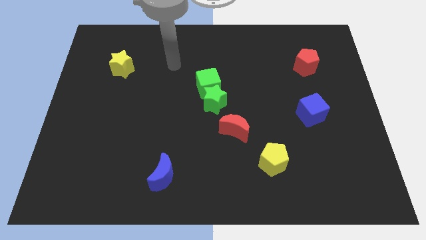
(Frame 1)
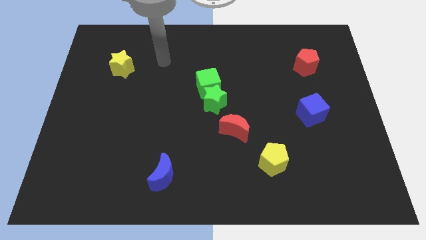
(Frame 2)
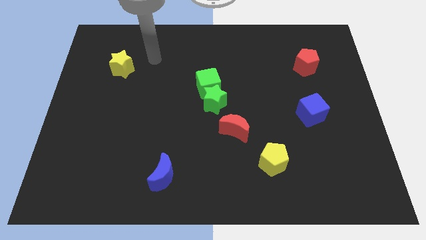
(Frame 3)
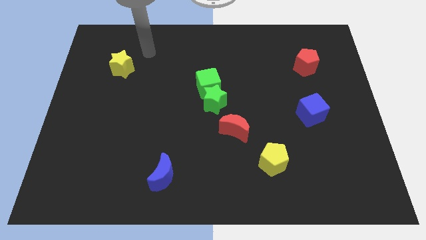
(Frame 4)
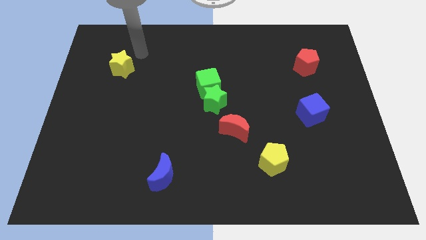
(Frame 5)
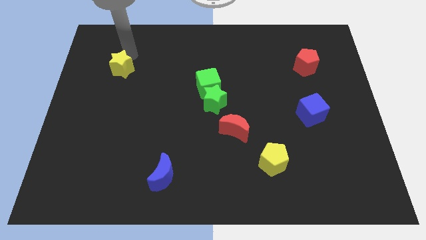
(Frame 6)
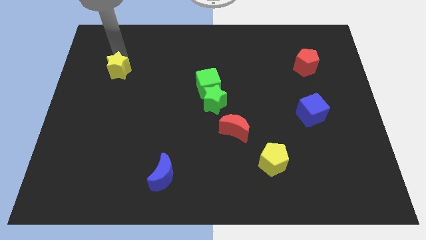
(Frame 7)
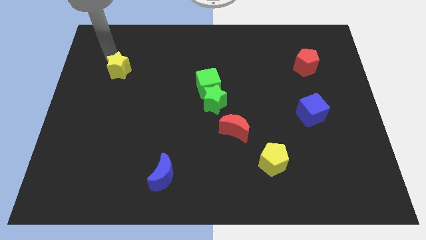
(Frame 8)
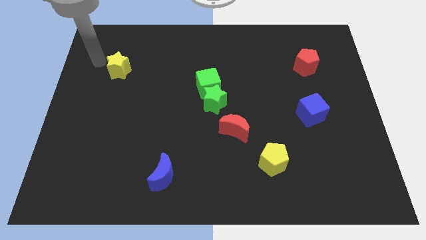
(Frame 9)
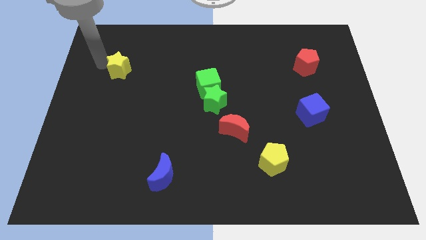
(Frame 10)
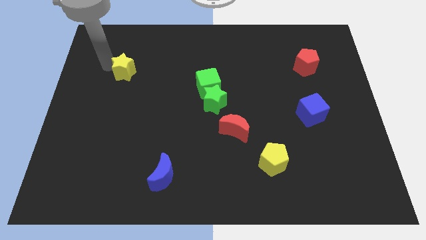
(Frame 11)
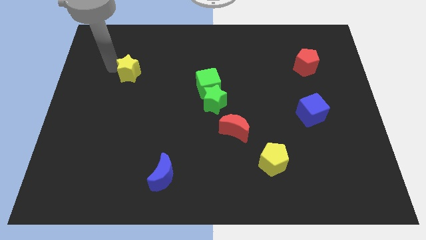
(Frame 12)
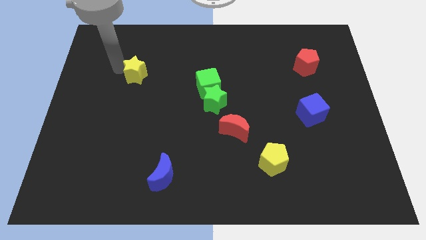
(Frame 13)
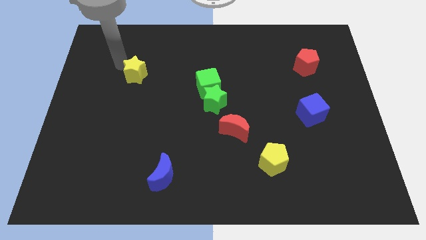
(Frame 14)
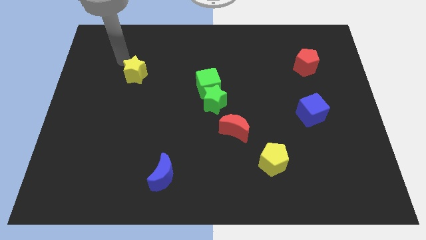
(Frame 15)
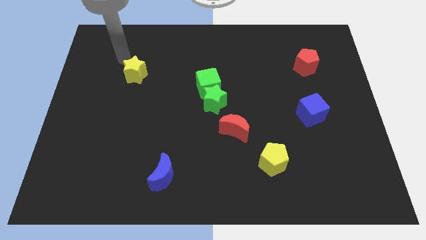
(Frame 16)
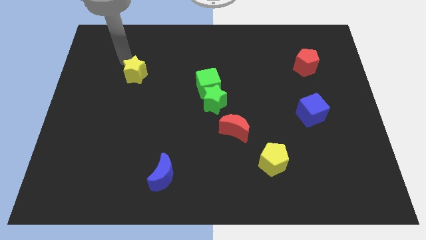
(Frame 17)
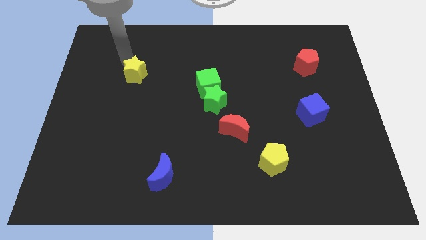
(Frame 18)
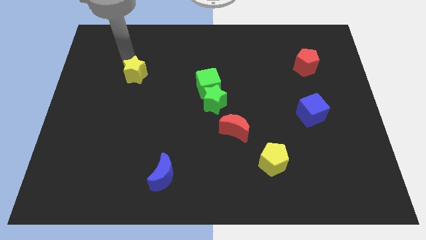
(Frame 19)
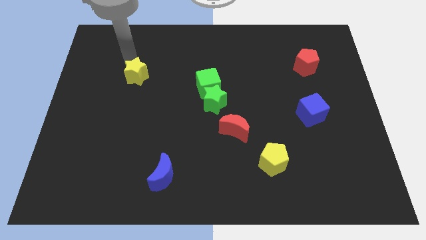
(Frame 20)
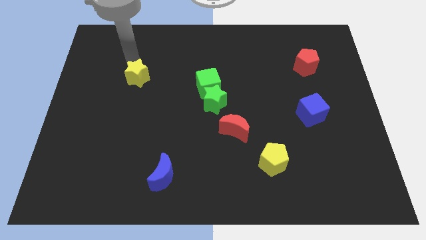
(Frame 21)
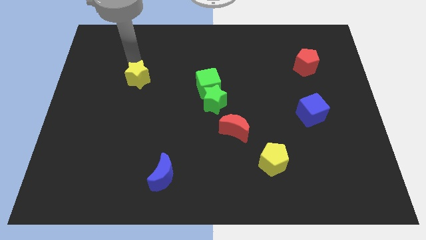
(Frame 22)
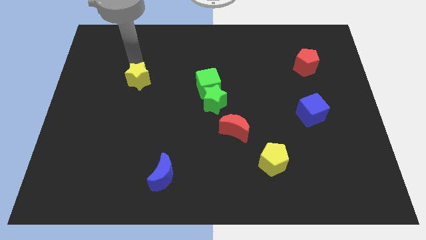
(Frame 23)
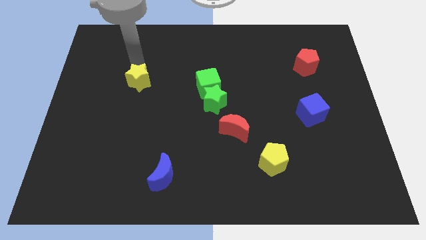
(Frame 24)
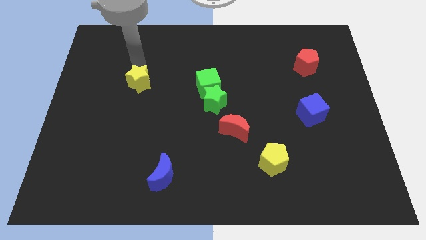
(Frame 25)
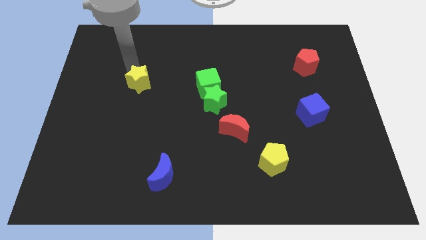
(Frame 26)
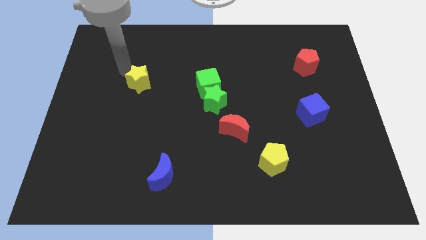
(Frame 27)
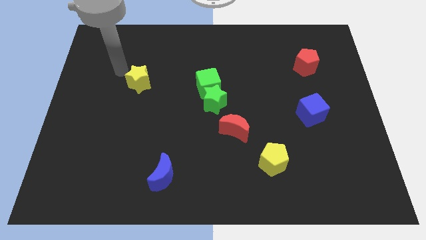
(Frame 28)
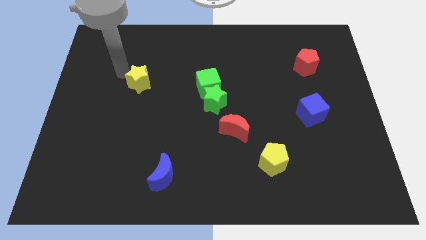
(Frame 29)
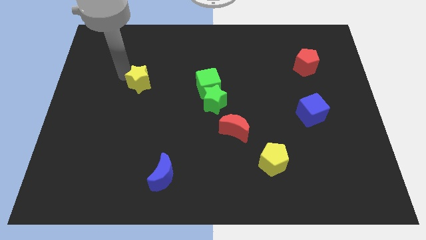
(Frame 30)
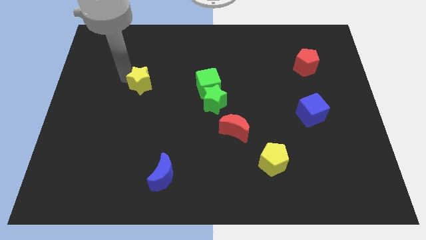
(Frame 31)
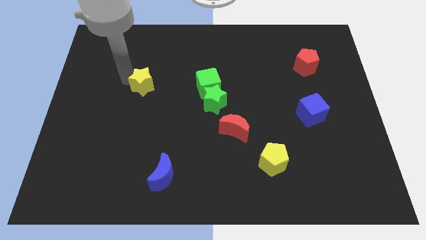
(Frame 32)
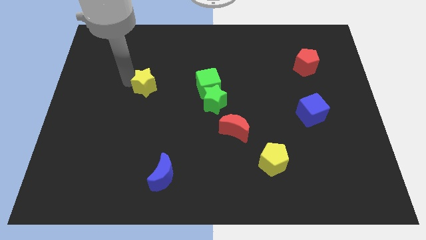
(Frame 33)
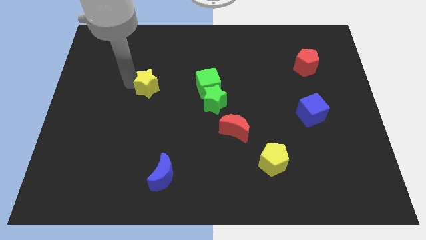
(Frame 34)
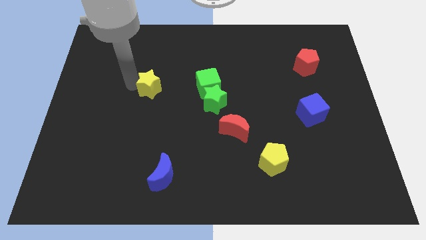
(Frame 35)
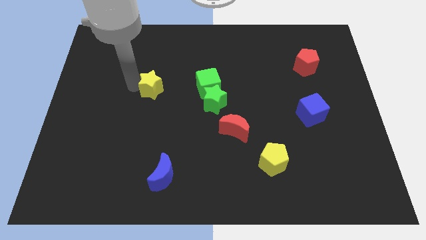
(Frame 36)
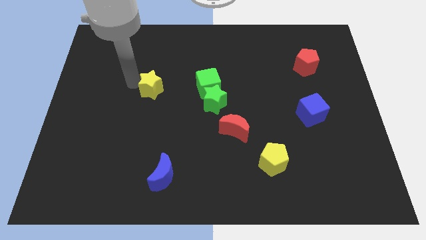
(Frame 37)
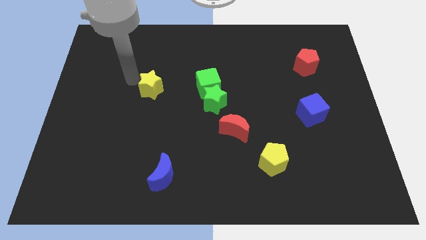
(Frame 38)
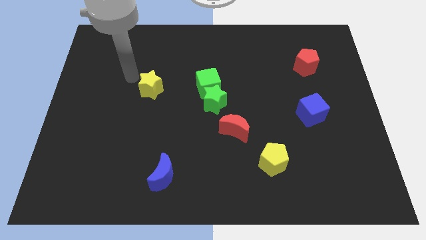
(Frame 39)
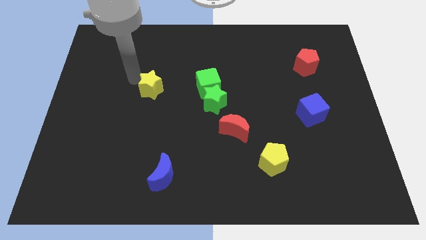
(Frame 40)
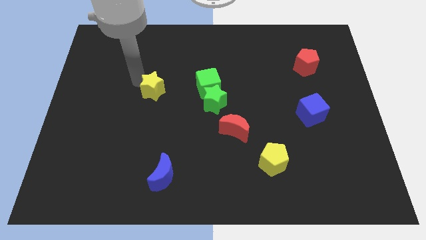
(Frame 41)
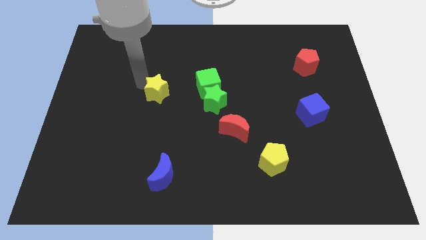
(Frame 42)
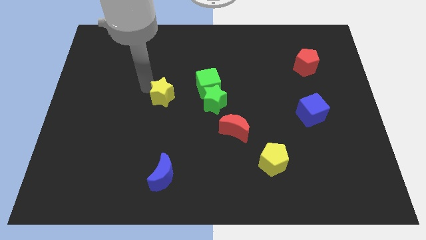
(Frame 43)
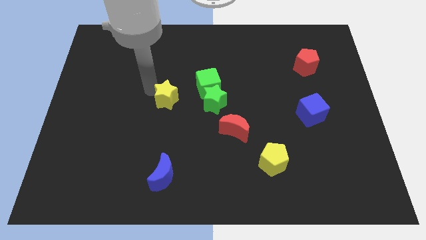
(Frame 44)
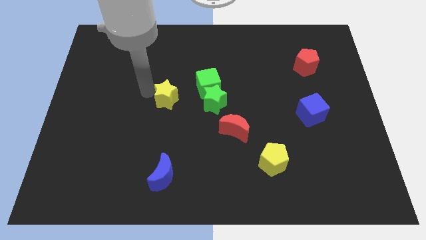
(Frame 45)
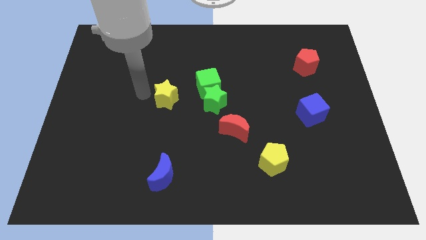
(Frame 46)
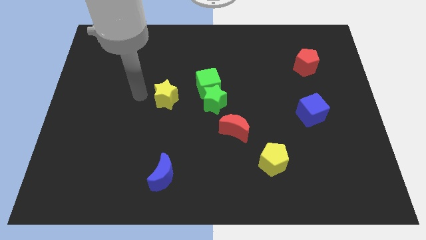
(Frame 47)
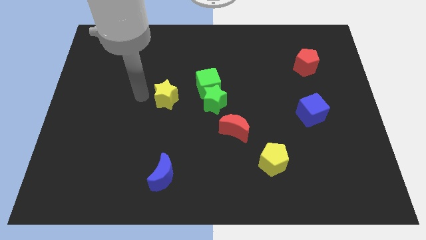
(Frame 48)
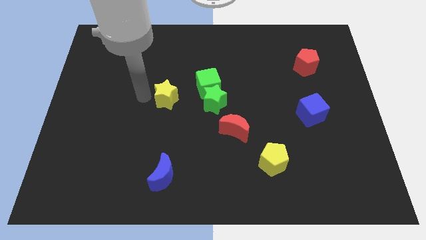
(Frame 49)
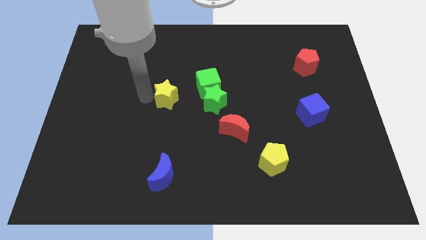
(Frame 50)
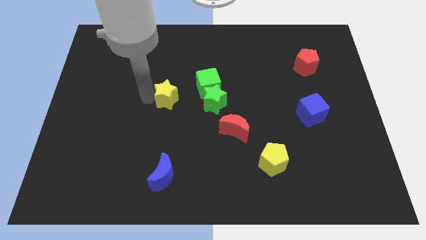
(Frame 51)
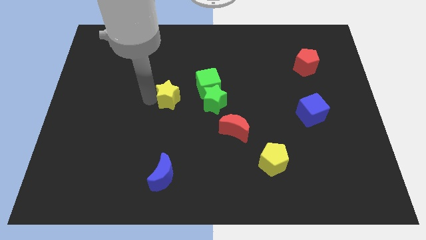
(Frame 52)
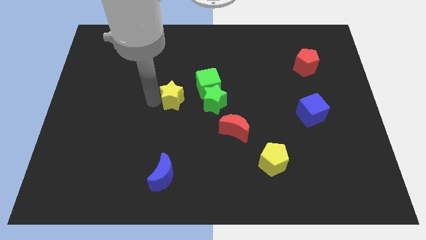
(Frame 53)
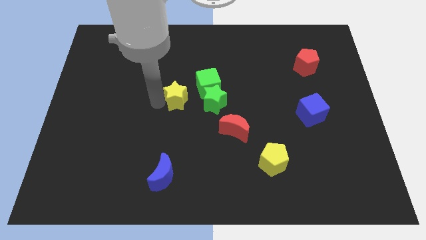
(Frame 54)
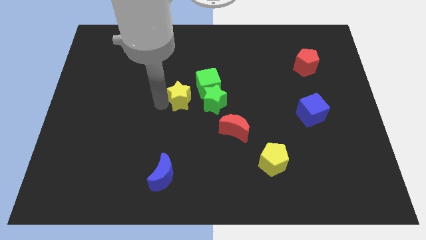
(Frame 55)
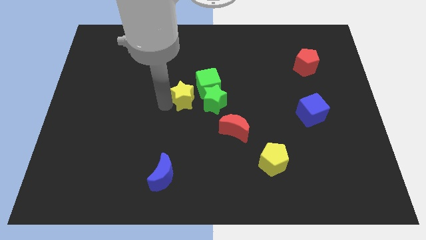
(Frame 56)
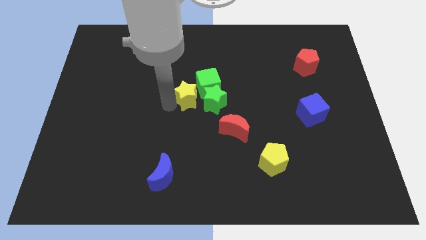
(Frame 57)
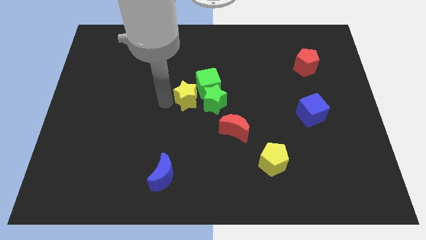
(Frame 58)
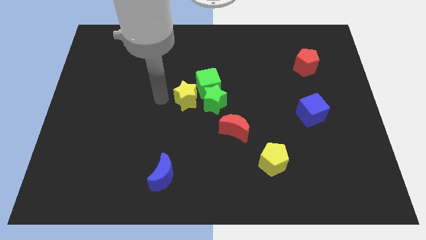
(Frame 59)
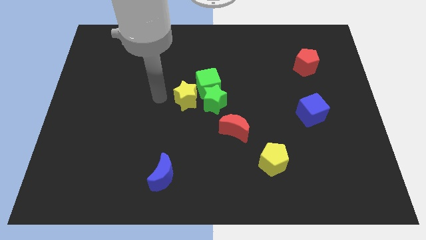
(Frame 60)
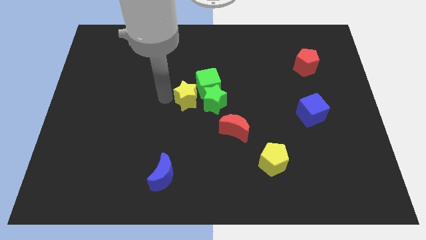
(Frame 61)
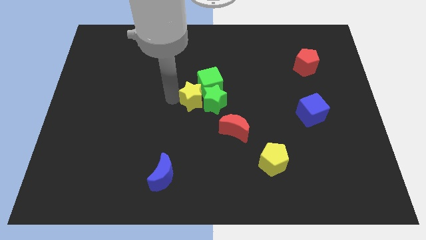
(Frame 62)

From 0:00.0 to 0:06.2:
put the yellow star close to the green star

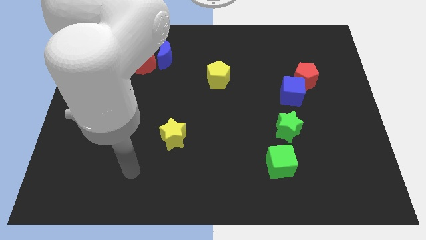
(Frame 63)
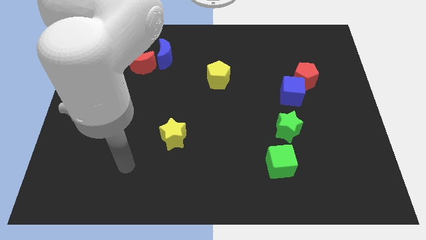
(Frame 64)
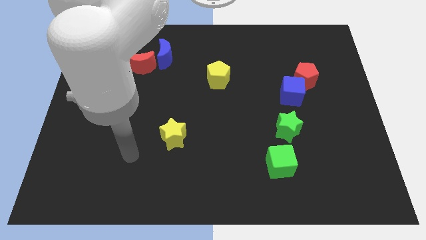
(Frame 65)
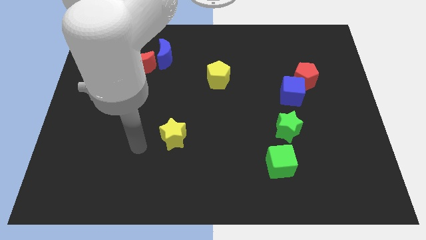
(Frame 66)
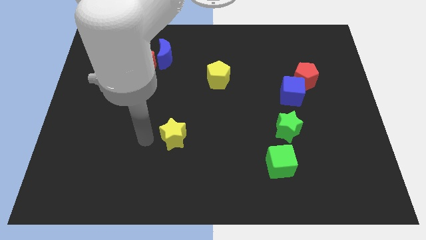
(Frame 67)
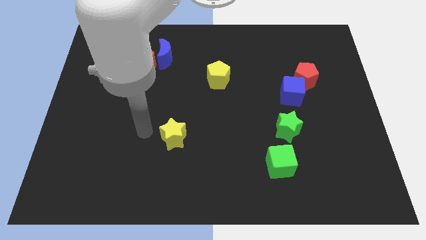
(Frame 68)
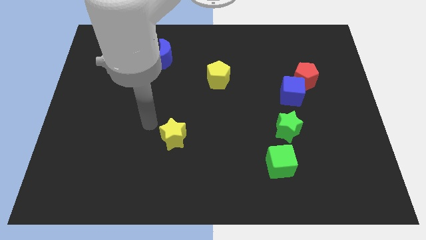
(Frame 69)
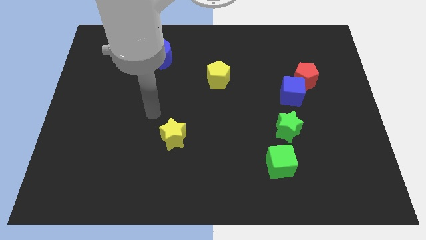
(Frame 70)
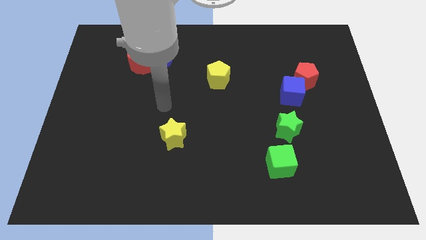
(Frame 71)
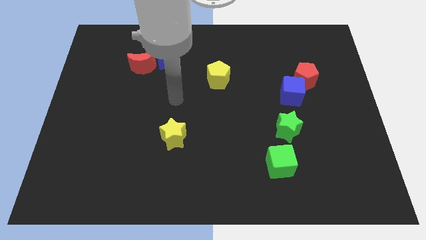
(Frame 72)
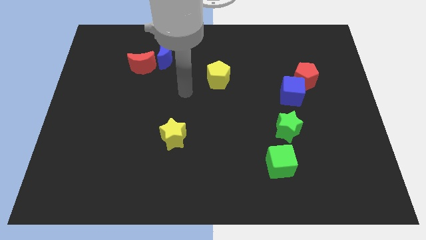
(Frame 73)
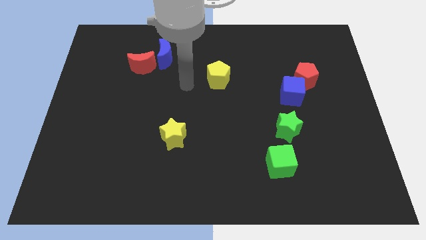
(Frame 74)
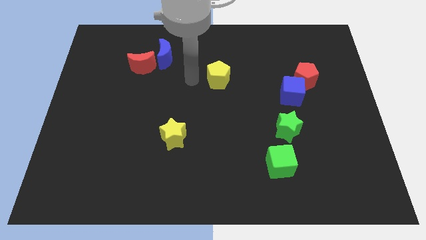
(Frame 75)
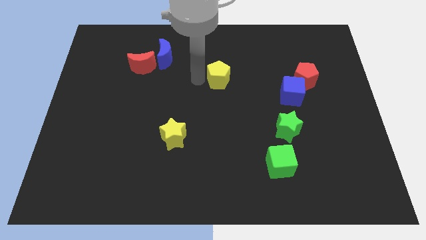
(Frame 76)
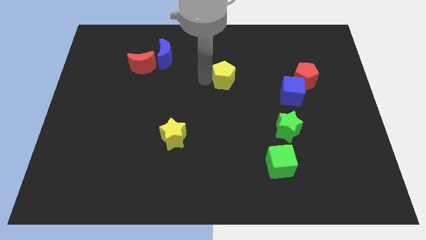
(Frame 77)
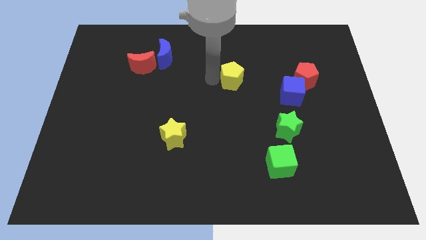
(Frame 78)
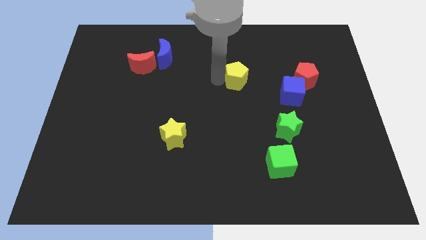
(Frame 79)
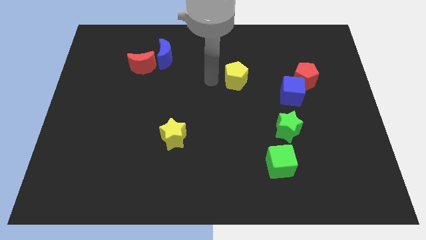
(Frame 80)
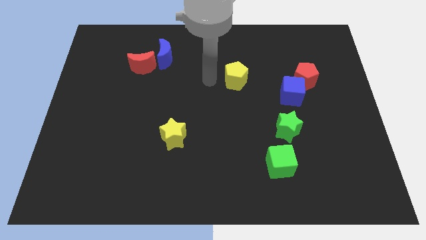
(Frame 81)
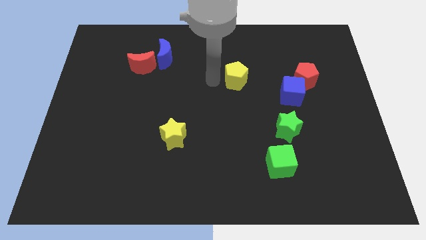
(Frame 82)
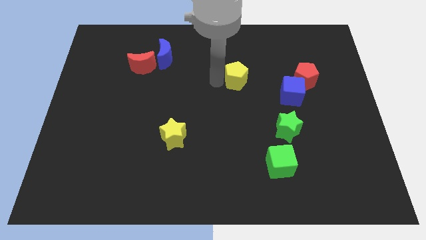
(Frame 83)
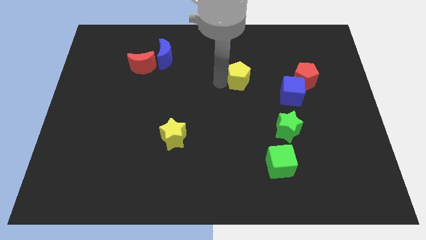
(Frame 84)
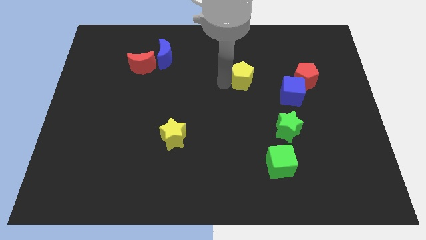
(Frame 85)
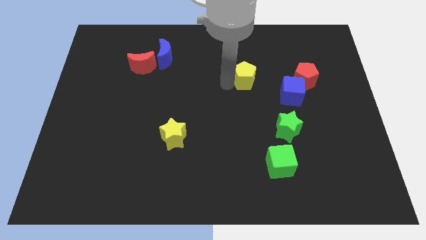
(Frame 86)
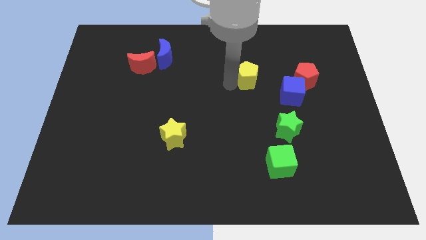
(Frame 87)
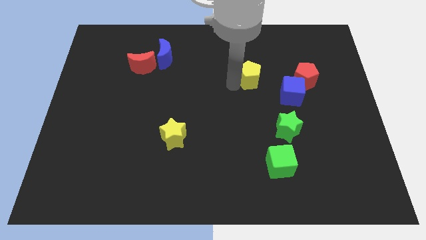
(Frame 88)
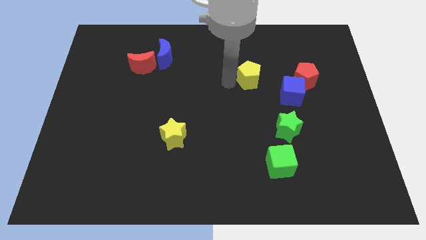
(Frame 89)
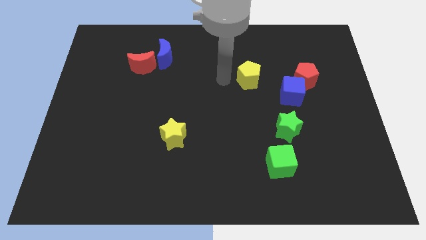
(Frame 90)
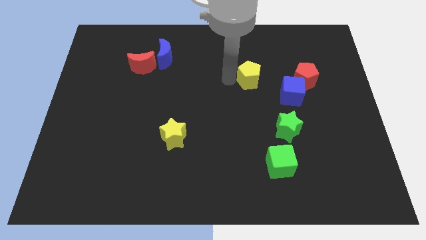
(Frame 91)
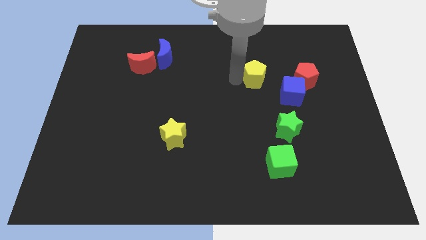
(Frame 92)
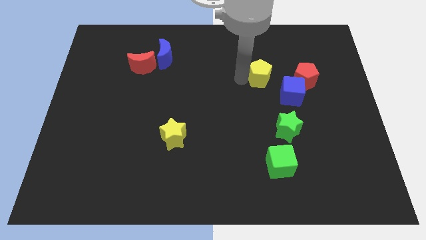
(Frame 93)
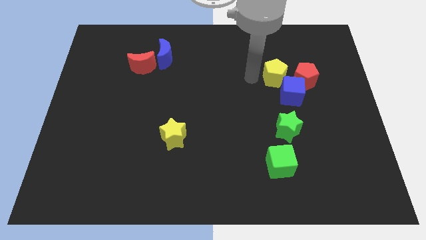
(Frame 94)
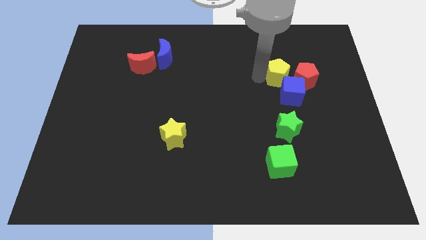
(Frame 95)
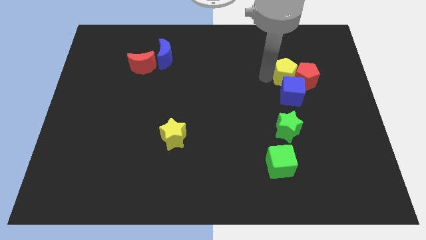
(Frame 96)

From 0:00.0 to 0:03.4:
slide the yellow pentagon towards the red pentagon
